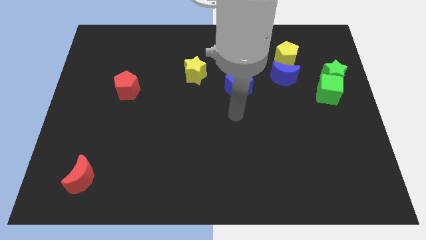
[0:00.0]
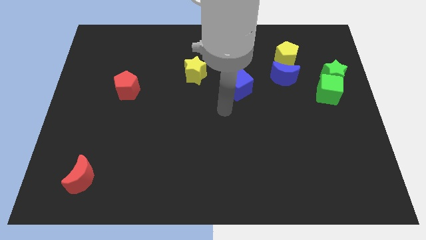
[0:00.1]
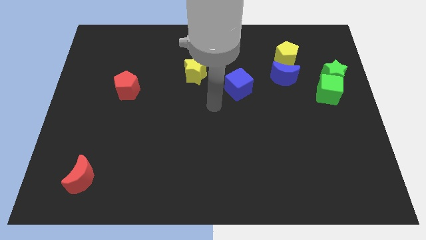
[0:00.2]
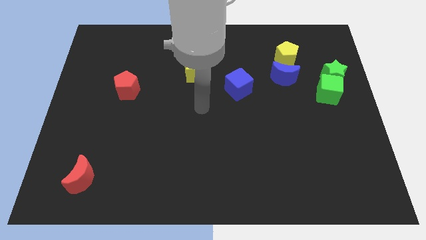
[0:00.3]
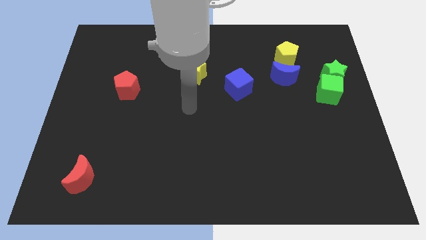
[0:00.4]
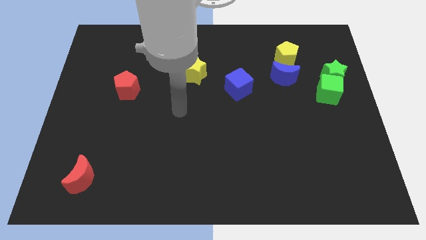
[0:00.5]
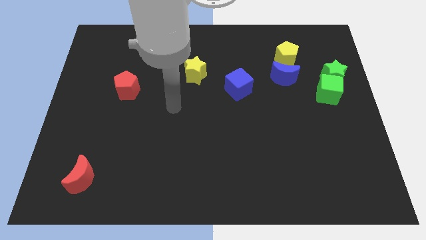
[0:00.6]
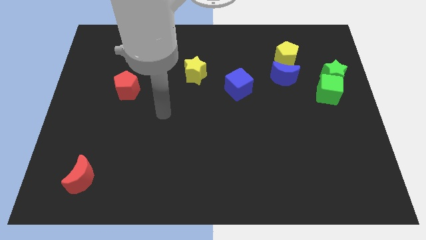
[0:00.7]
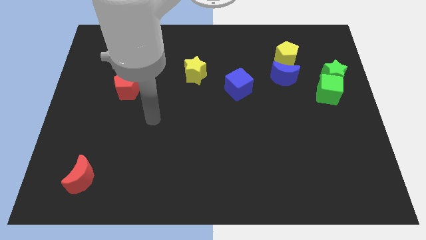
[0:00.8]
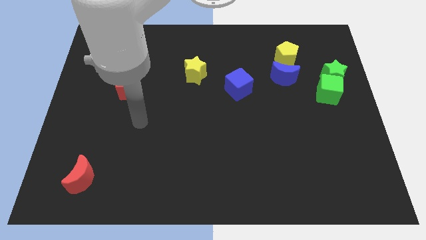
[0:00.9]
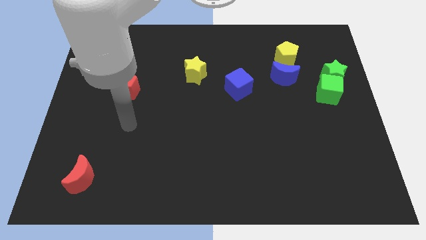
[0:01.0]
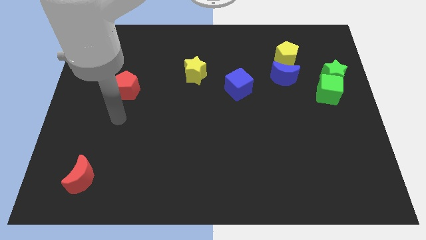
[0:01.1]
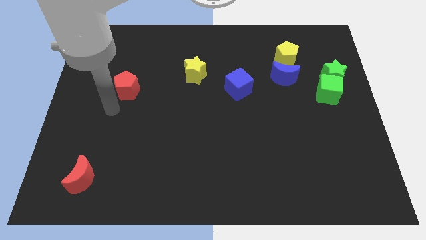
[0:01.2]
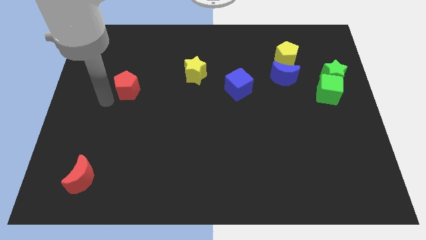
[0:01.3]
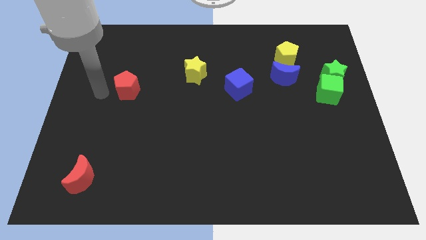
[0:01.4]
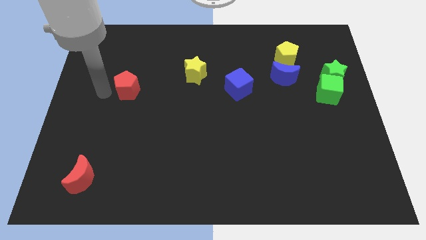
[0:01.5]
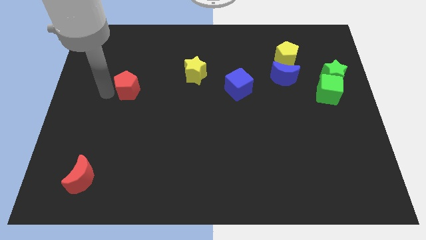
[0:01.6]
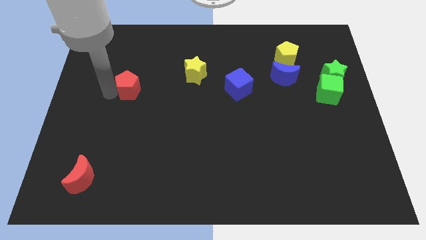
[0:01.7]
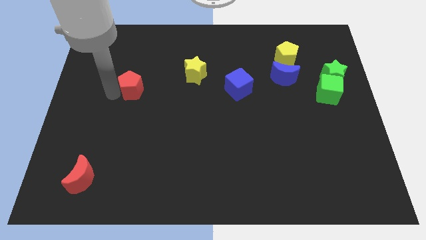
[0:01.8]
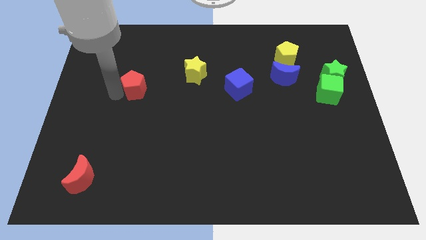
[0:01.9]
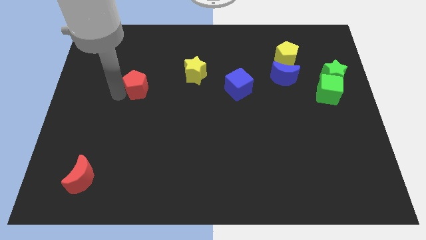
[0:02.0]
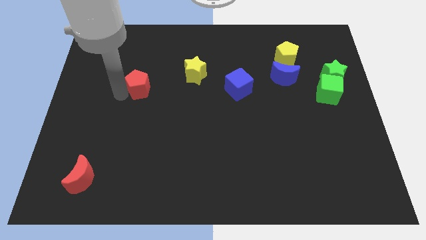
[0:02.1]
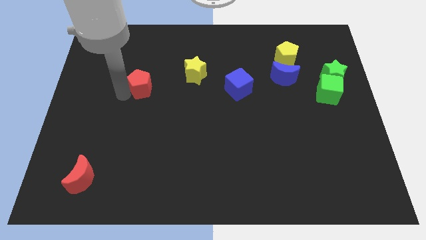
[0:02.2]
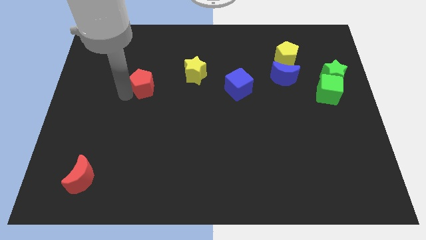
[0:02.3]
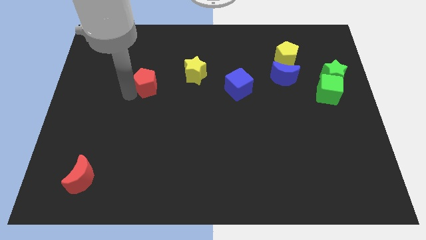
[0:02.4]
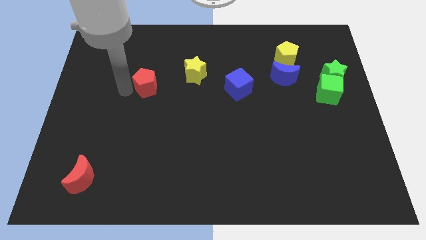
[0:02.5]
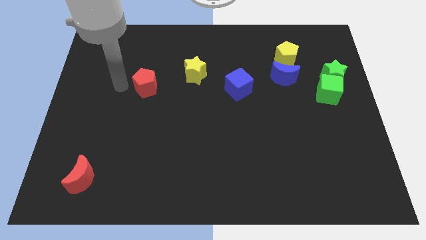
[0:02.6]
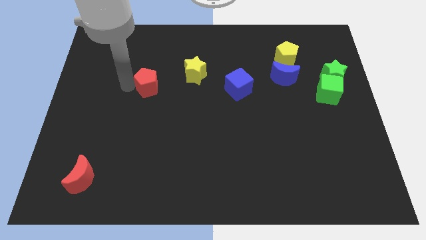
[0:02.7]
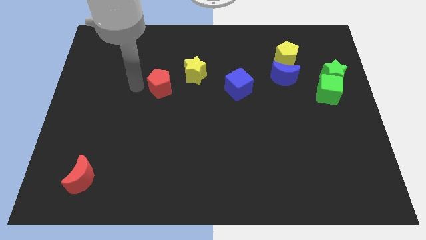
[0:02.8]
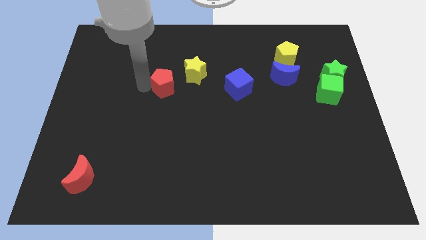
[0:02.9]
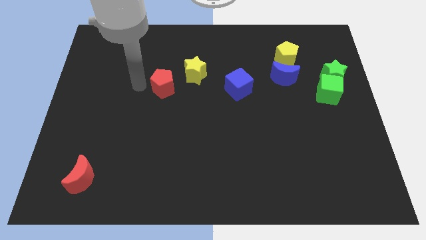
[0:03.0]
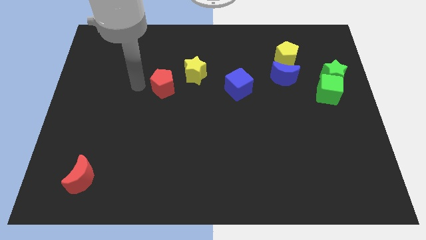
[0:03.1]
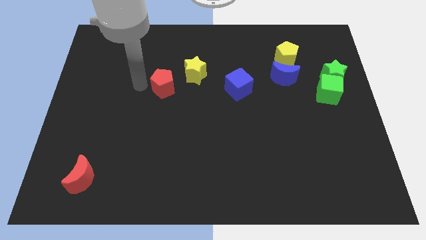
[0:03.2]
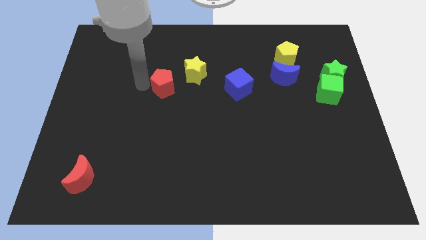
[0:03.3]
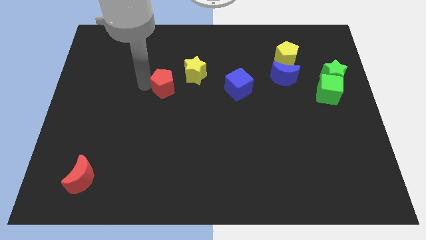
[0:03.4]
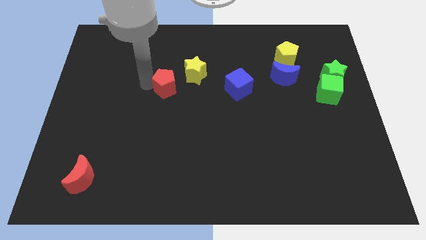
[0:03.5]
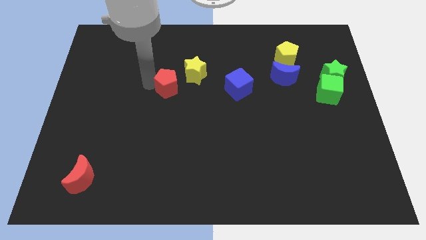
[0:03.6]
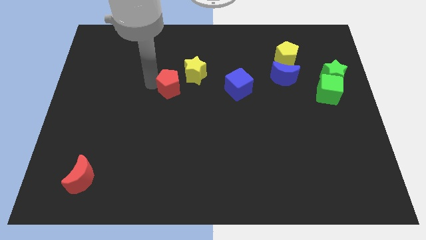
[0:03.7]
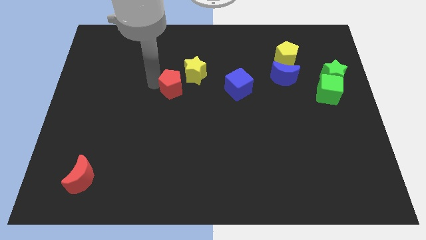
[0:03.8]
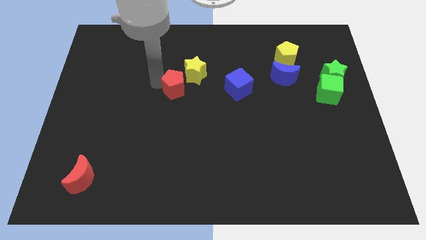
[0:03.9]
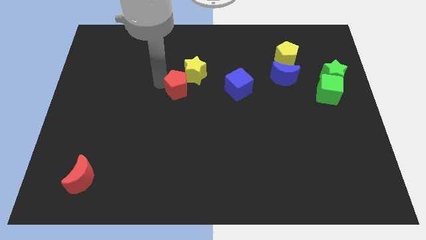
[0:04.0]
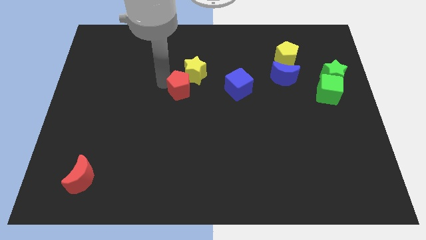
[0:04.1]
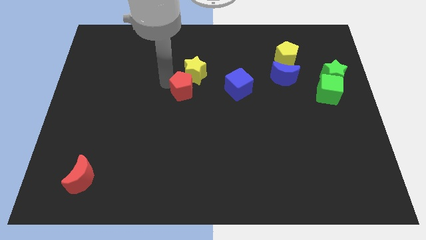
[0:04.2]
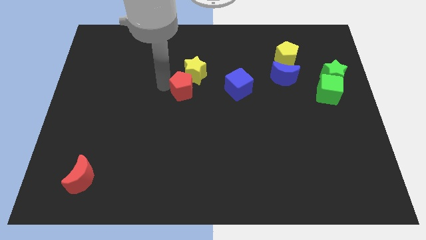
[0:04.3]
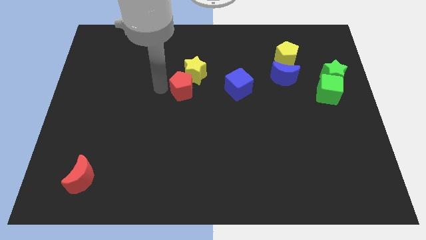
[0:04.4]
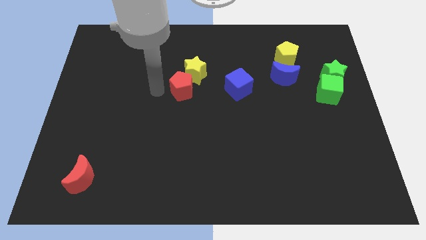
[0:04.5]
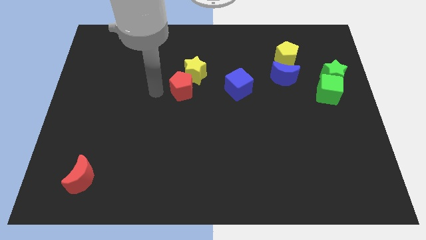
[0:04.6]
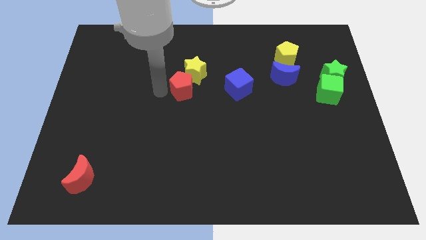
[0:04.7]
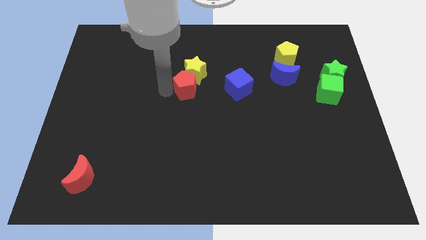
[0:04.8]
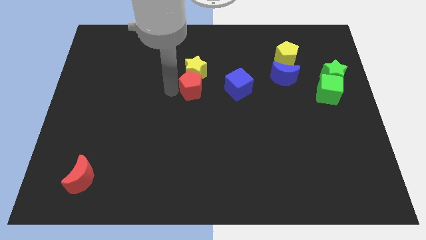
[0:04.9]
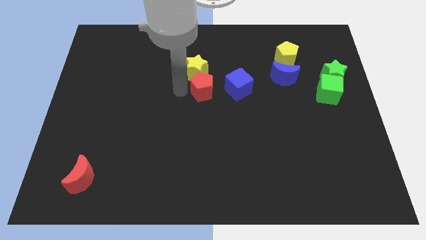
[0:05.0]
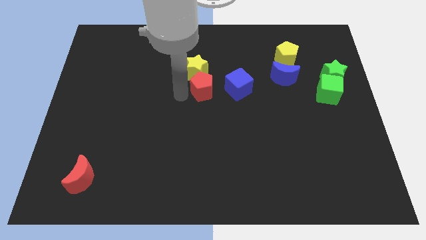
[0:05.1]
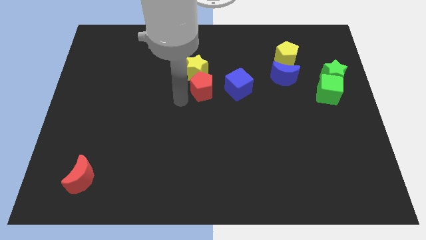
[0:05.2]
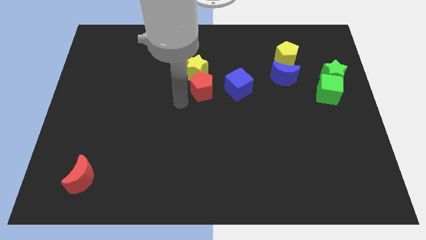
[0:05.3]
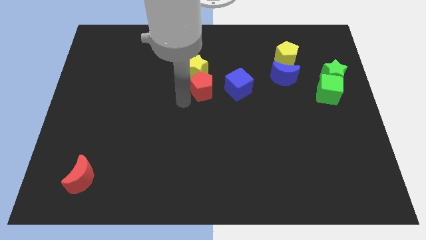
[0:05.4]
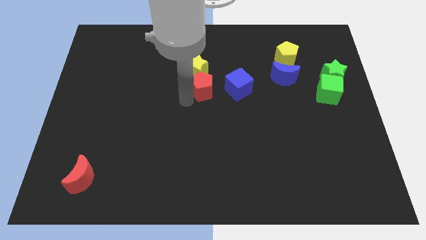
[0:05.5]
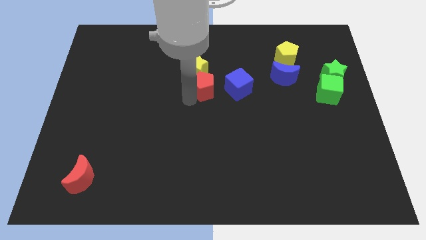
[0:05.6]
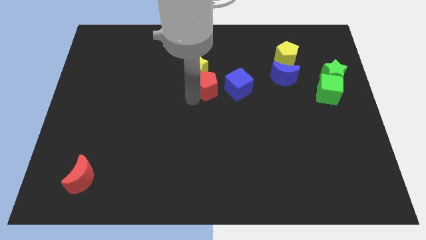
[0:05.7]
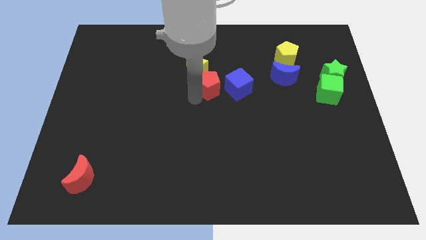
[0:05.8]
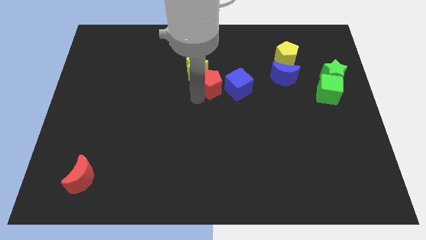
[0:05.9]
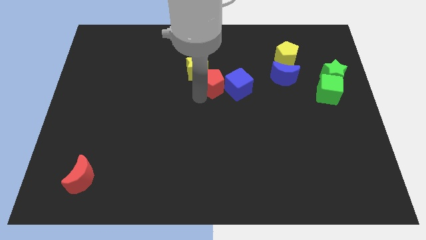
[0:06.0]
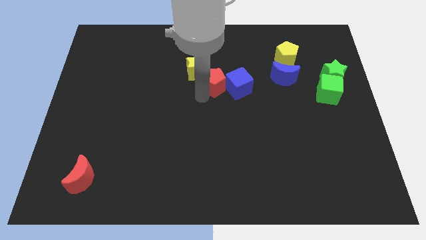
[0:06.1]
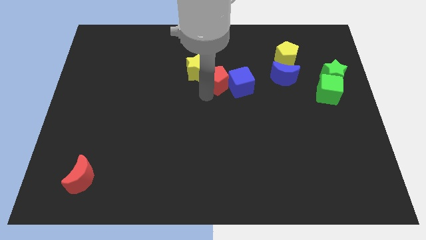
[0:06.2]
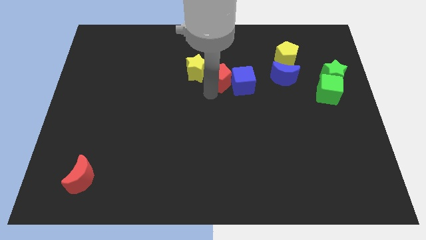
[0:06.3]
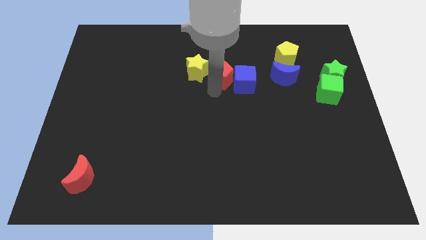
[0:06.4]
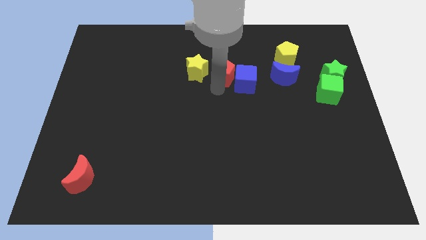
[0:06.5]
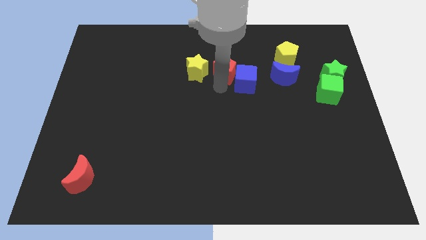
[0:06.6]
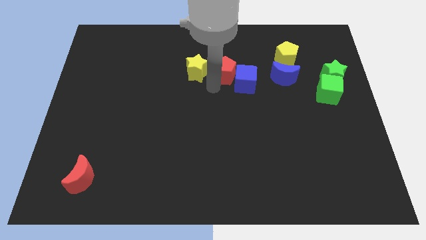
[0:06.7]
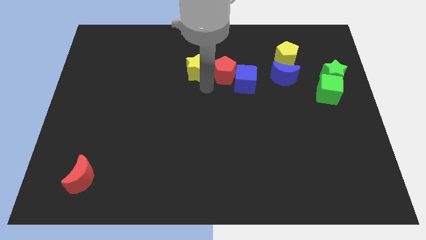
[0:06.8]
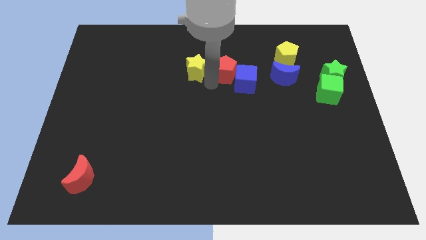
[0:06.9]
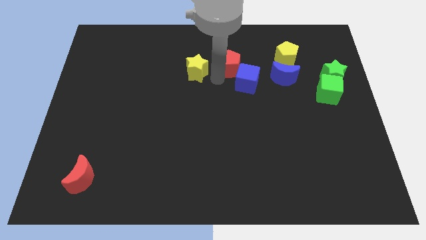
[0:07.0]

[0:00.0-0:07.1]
slide the red pentagon to the left side of the yellow pentagon
